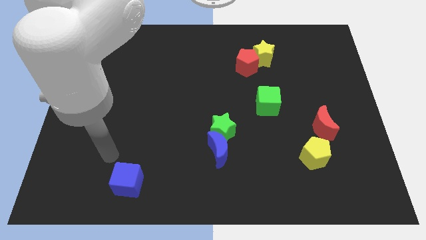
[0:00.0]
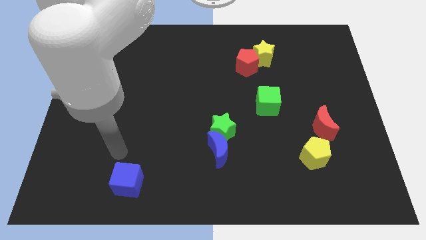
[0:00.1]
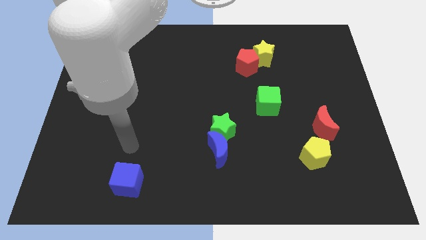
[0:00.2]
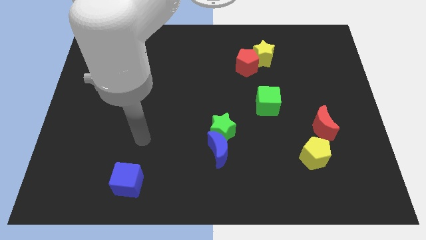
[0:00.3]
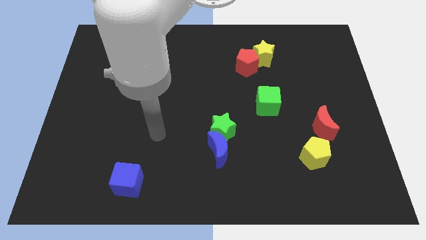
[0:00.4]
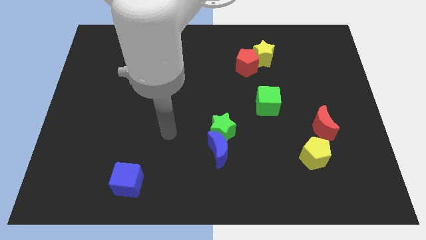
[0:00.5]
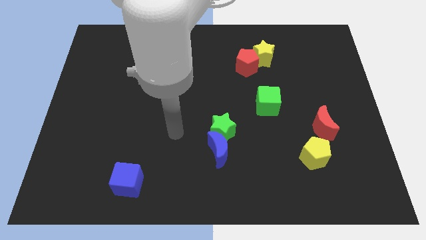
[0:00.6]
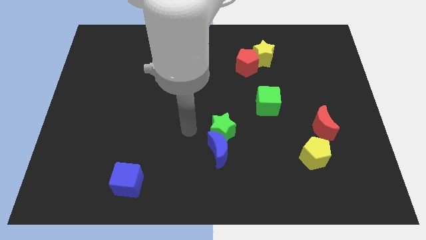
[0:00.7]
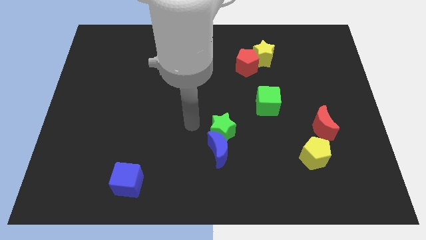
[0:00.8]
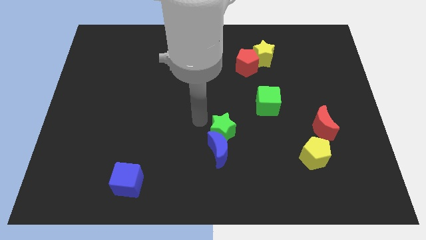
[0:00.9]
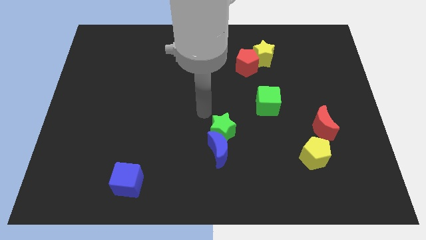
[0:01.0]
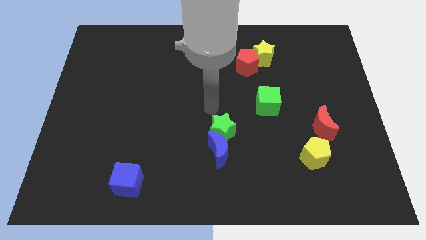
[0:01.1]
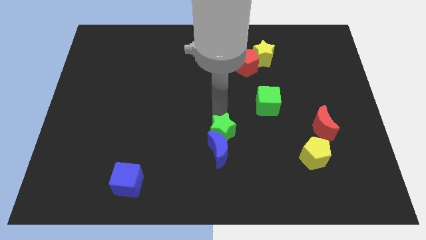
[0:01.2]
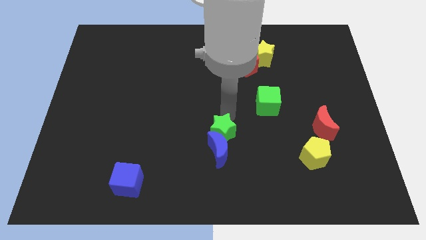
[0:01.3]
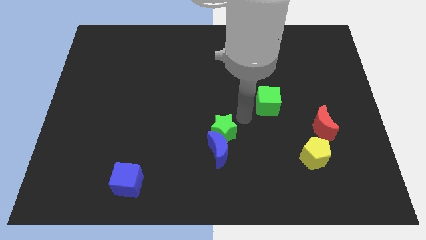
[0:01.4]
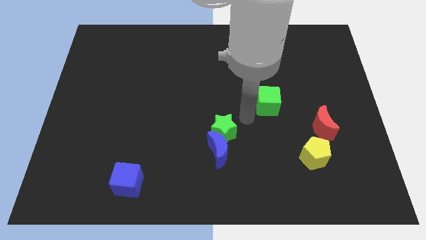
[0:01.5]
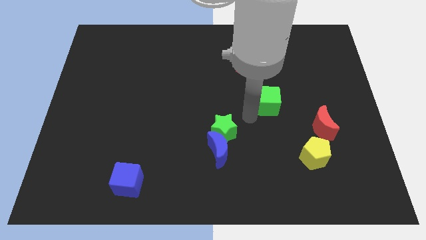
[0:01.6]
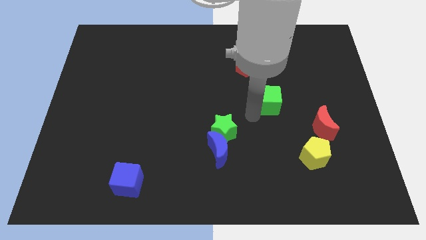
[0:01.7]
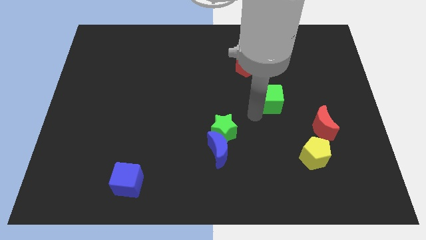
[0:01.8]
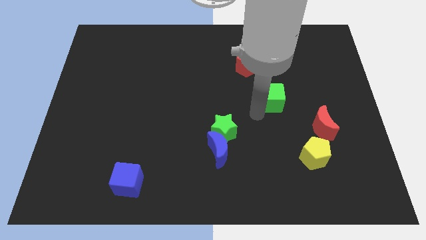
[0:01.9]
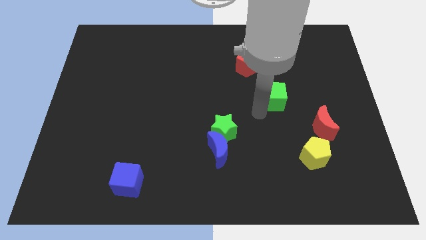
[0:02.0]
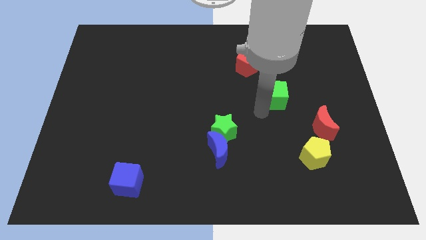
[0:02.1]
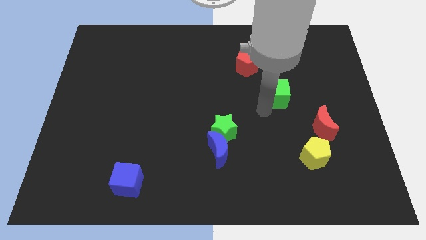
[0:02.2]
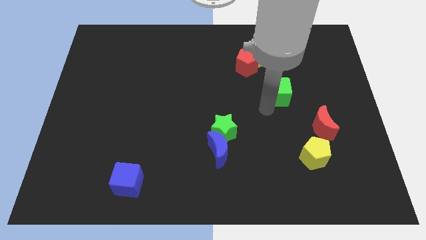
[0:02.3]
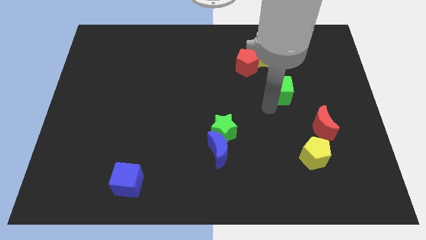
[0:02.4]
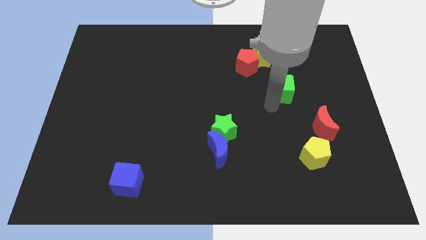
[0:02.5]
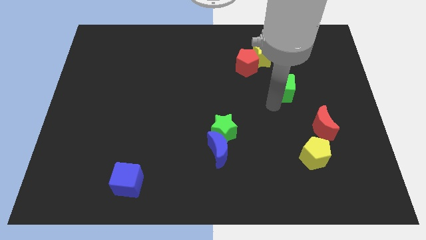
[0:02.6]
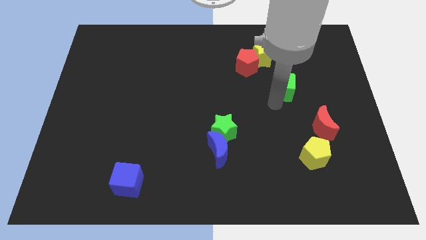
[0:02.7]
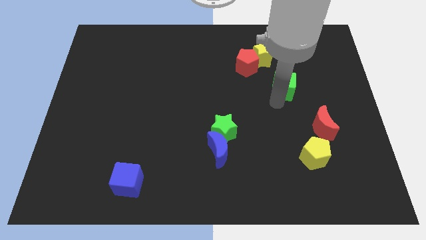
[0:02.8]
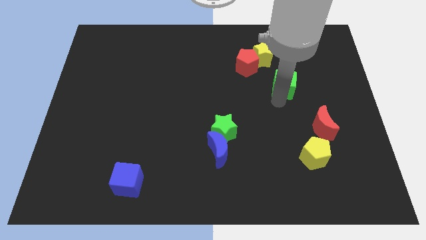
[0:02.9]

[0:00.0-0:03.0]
slightly move the green cube upwards and to the right

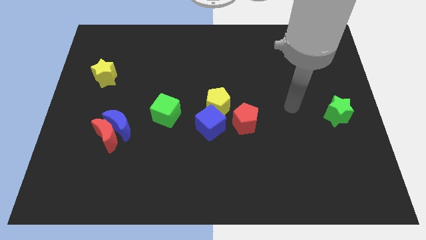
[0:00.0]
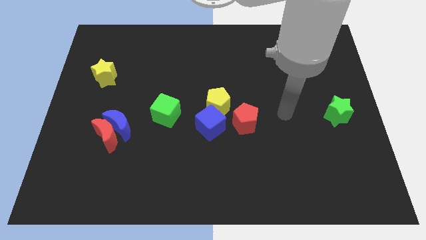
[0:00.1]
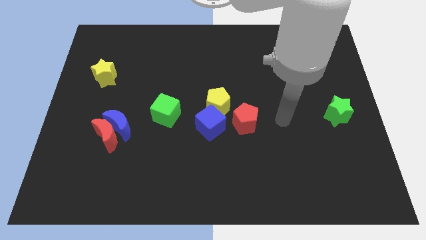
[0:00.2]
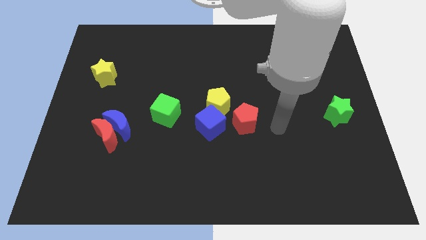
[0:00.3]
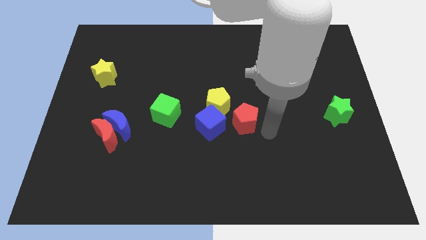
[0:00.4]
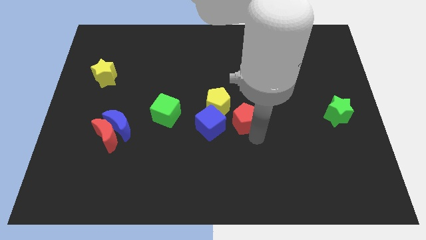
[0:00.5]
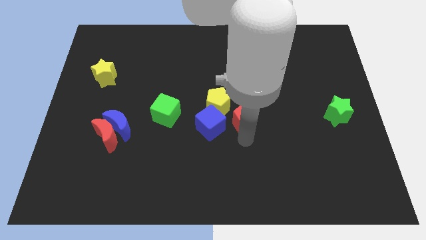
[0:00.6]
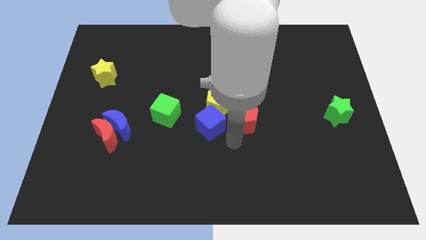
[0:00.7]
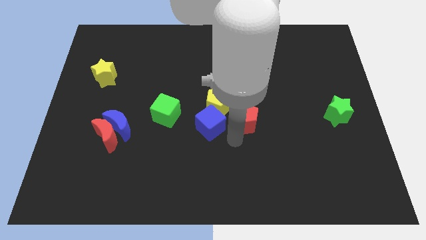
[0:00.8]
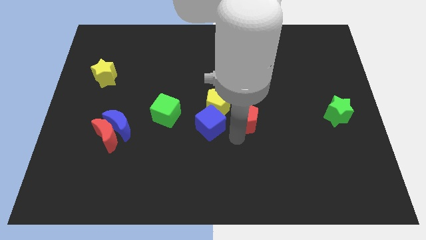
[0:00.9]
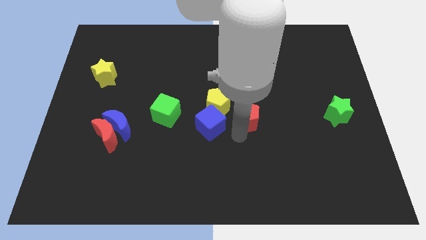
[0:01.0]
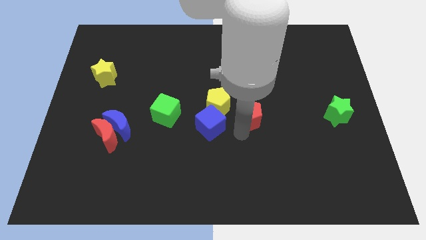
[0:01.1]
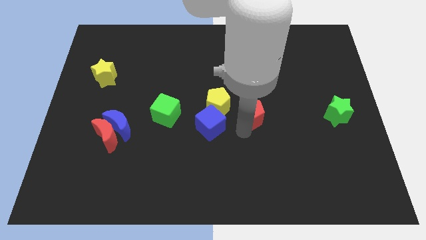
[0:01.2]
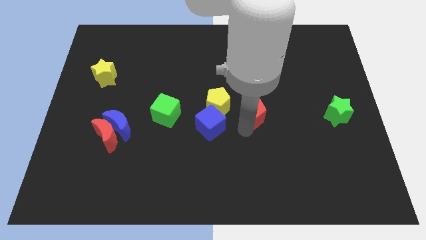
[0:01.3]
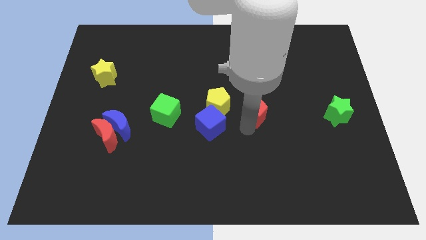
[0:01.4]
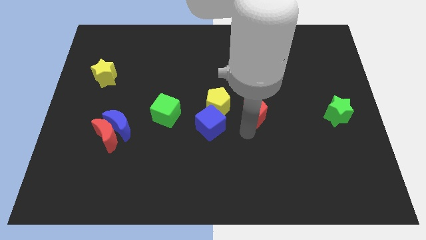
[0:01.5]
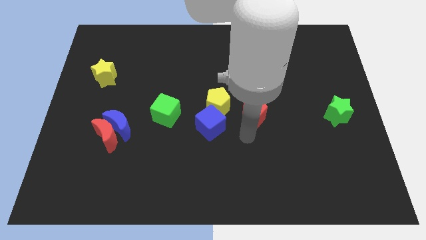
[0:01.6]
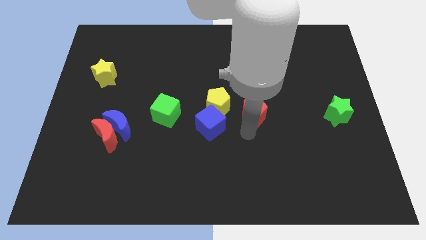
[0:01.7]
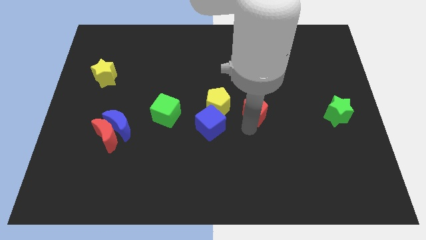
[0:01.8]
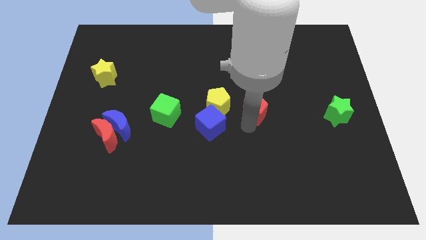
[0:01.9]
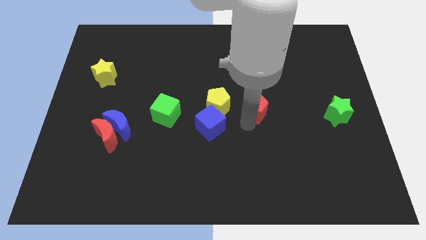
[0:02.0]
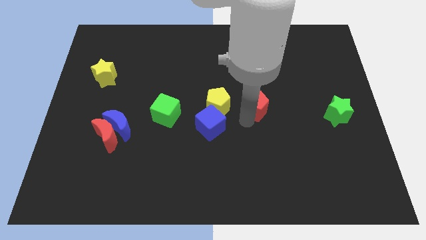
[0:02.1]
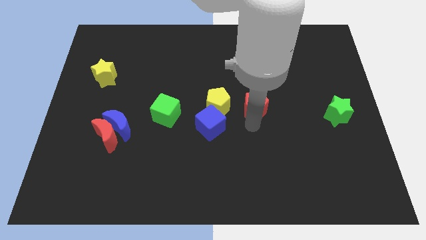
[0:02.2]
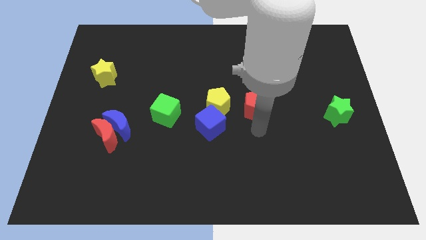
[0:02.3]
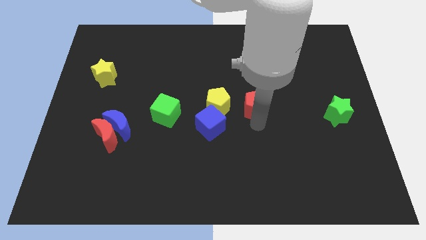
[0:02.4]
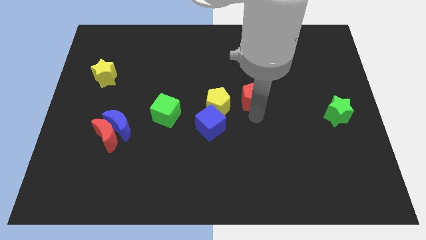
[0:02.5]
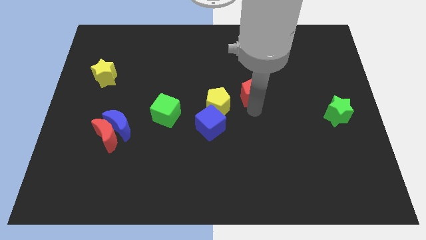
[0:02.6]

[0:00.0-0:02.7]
slide the red pentagon slightly upwards

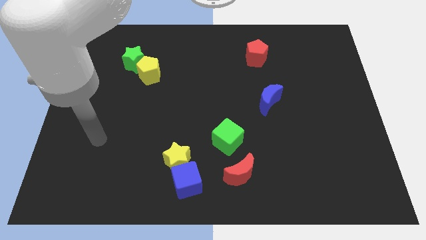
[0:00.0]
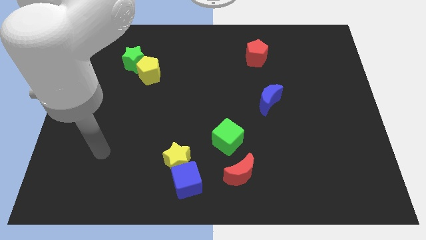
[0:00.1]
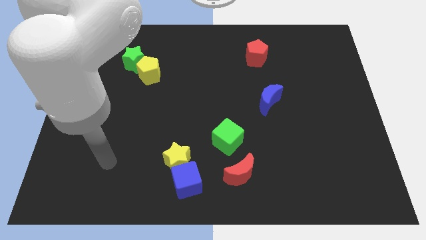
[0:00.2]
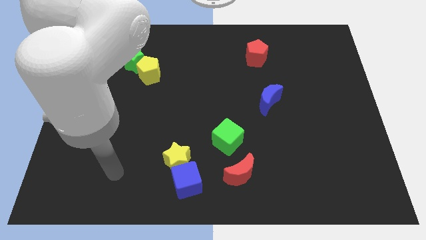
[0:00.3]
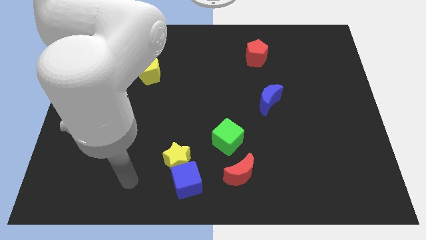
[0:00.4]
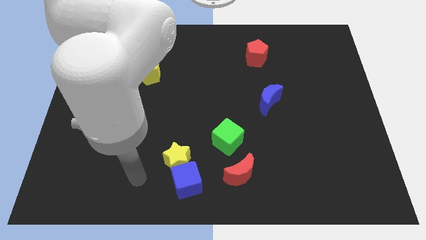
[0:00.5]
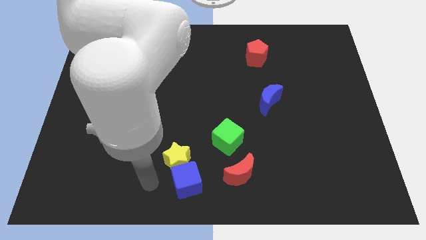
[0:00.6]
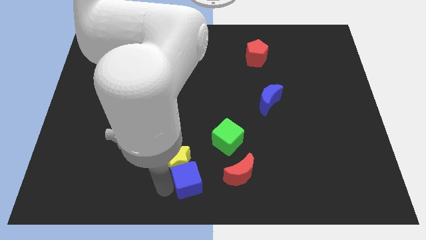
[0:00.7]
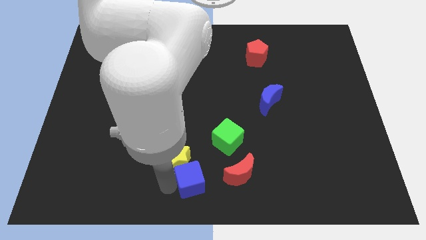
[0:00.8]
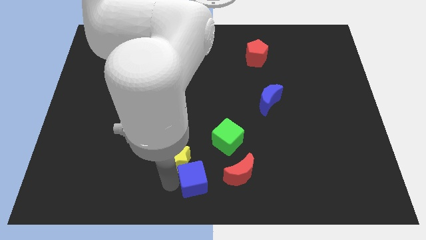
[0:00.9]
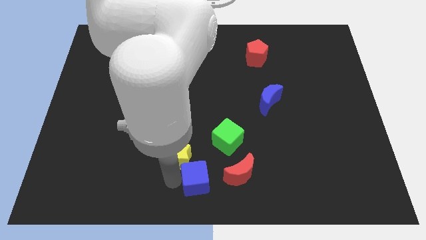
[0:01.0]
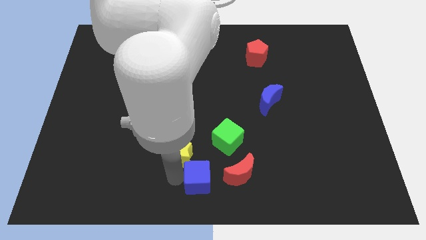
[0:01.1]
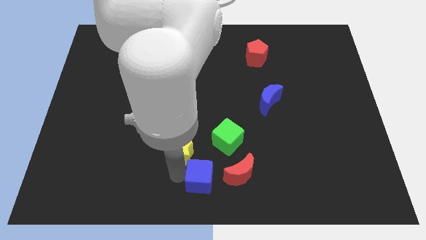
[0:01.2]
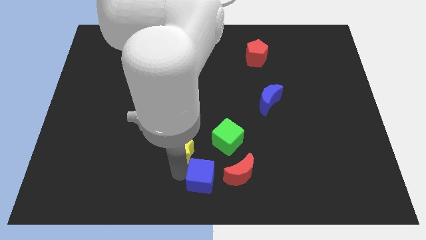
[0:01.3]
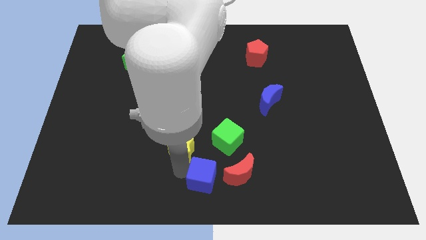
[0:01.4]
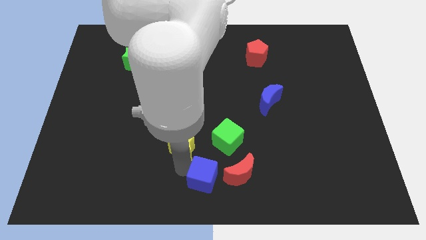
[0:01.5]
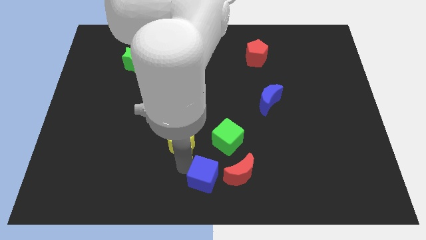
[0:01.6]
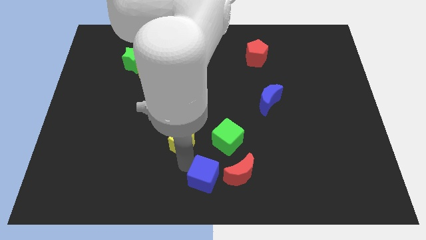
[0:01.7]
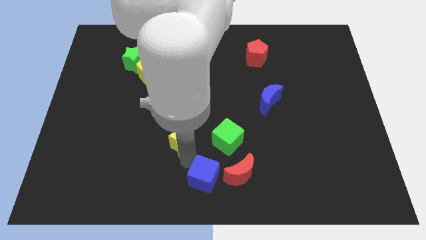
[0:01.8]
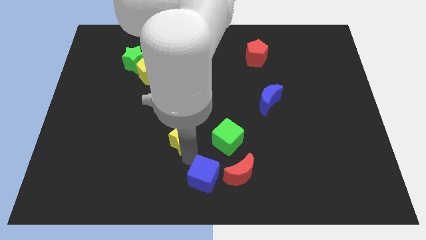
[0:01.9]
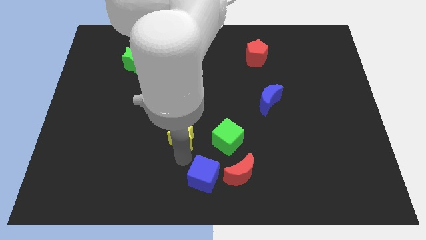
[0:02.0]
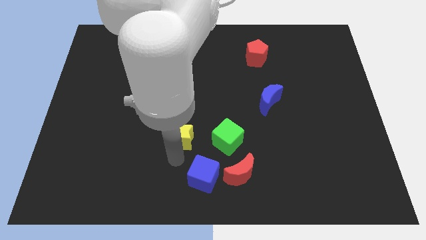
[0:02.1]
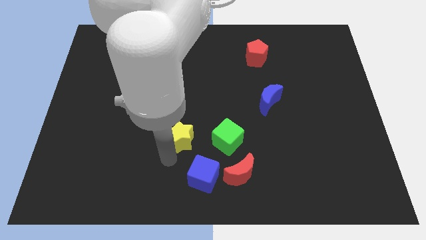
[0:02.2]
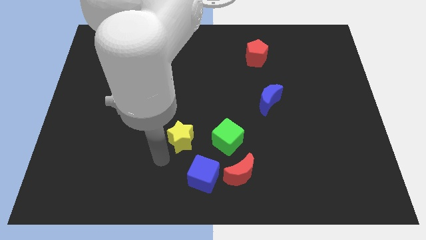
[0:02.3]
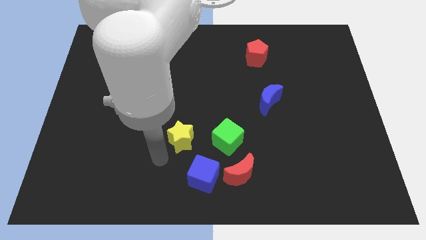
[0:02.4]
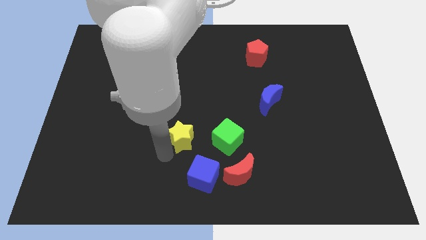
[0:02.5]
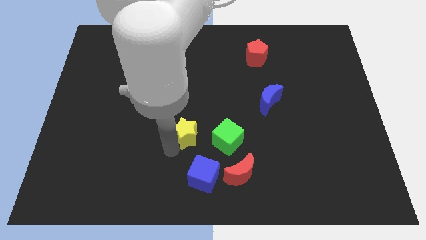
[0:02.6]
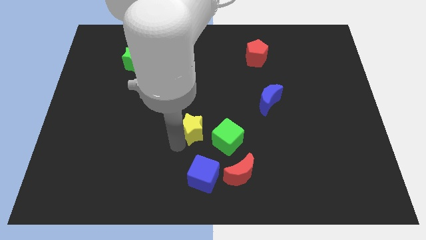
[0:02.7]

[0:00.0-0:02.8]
push the yellow star a little up and right diagonally
